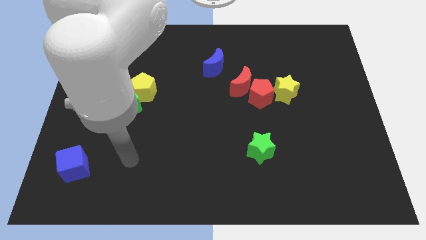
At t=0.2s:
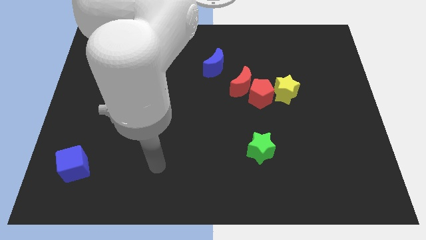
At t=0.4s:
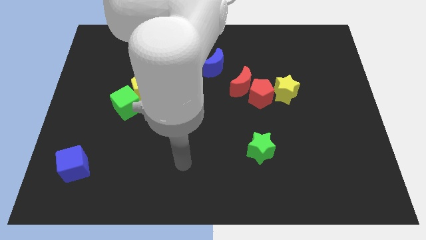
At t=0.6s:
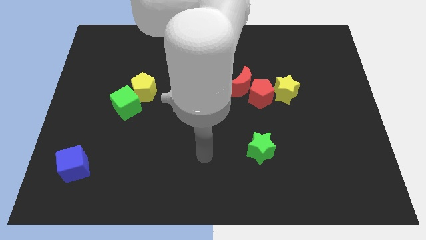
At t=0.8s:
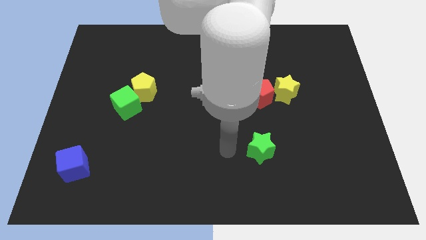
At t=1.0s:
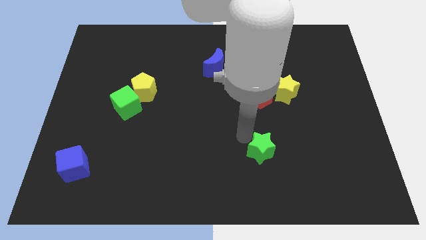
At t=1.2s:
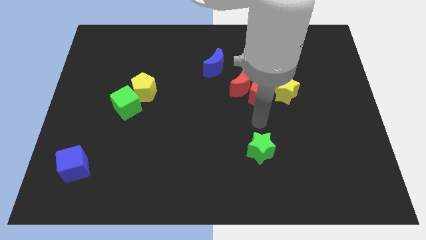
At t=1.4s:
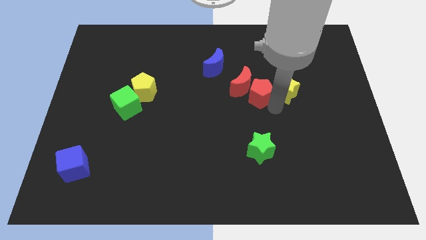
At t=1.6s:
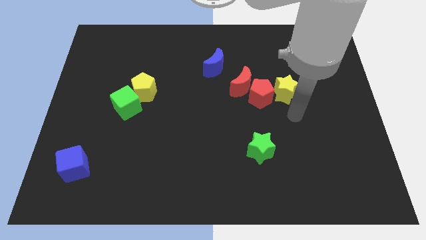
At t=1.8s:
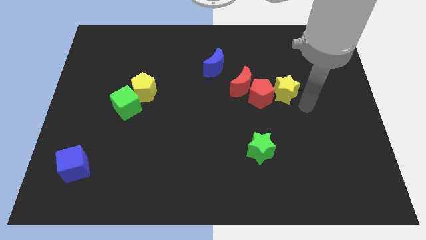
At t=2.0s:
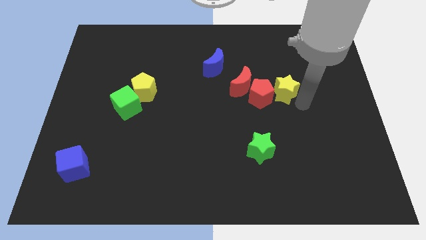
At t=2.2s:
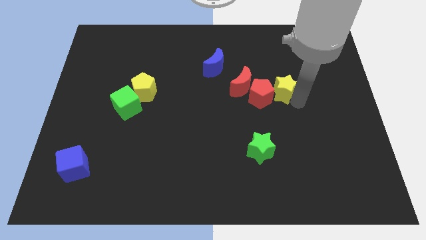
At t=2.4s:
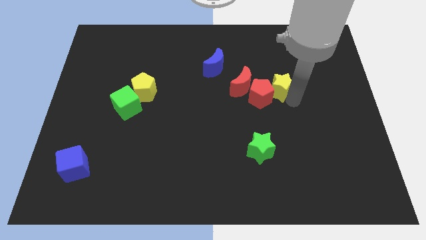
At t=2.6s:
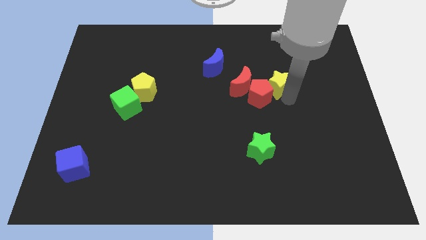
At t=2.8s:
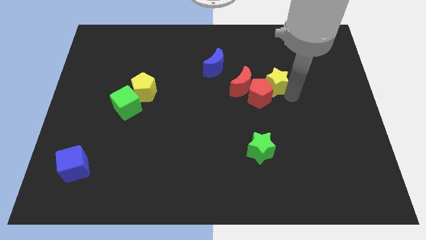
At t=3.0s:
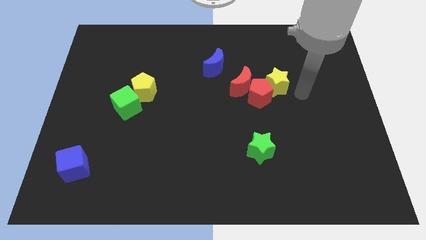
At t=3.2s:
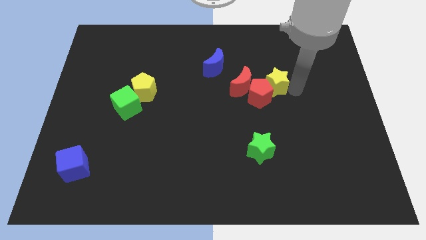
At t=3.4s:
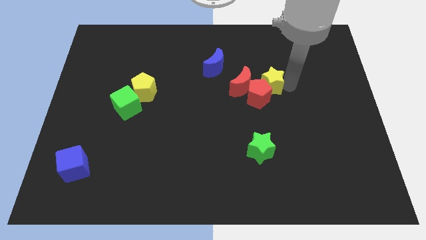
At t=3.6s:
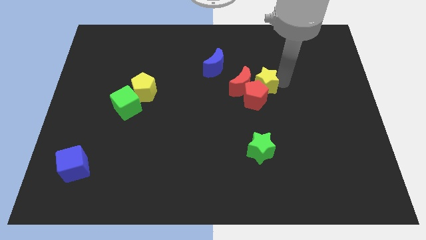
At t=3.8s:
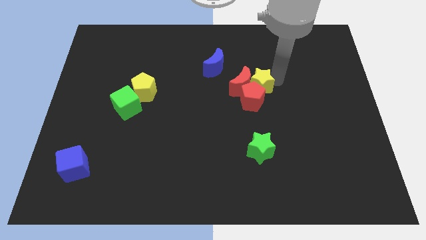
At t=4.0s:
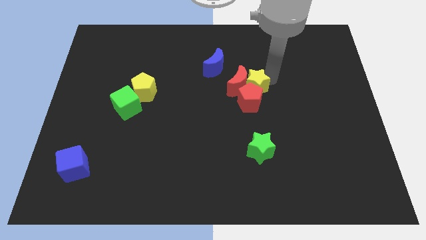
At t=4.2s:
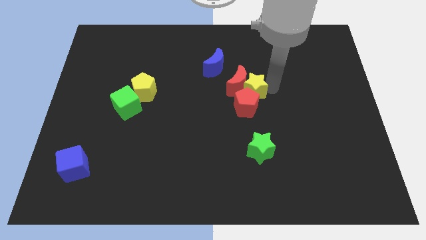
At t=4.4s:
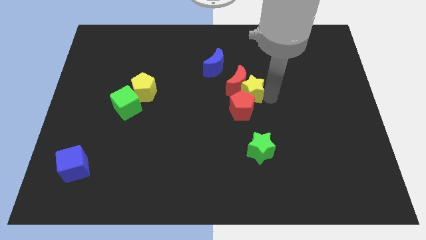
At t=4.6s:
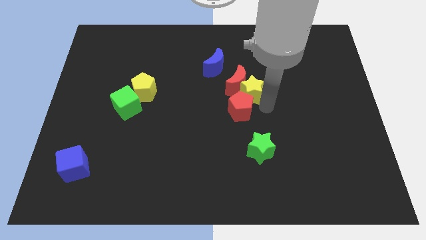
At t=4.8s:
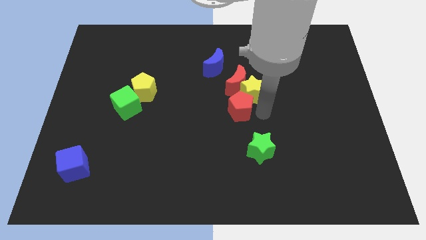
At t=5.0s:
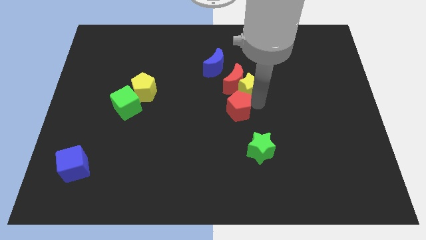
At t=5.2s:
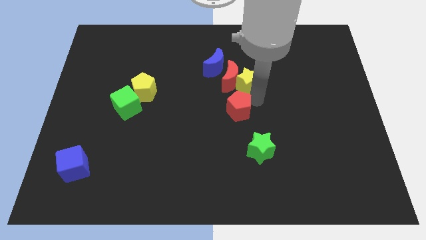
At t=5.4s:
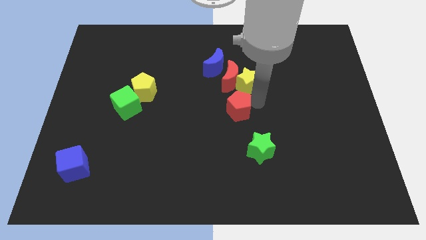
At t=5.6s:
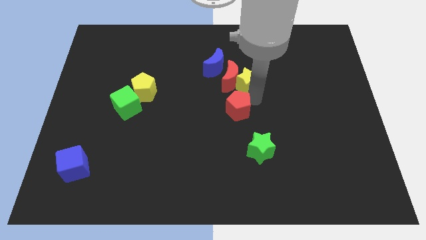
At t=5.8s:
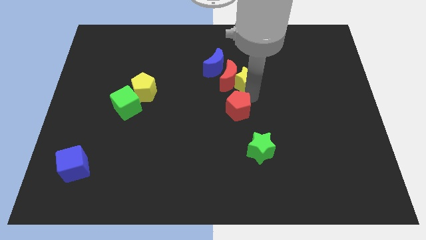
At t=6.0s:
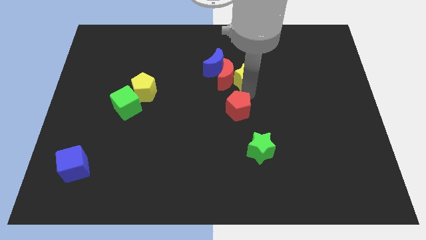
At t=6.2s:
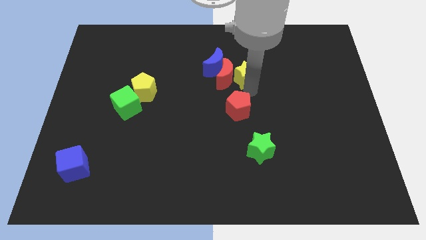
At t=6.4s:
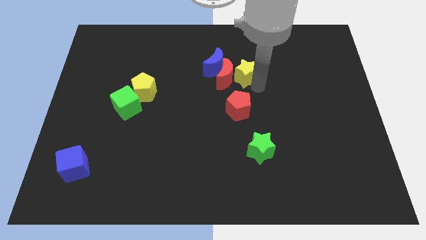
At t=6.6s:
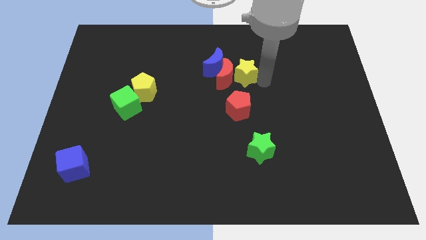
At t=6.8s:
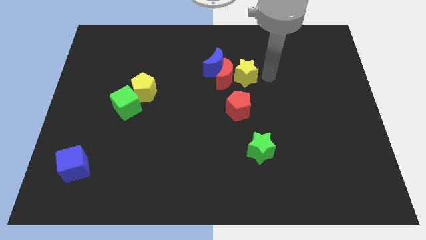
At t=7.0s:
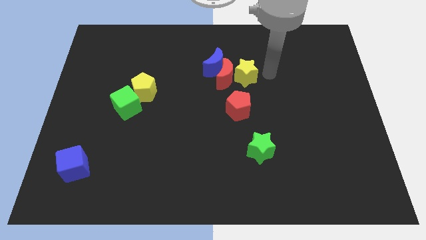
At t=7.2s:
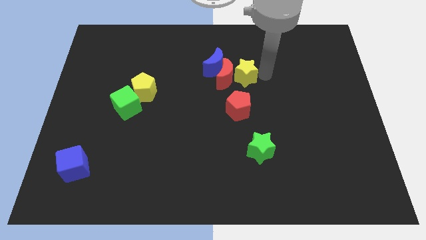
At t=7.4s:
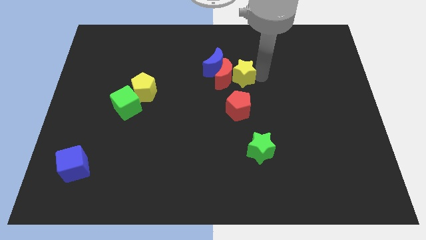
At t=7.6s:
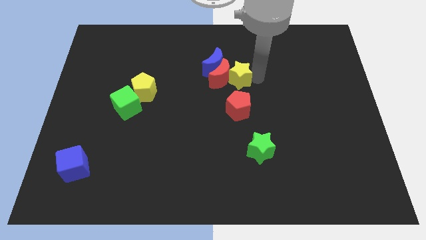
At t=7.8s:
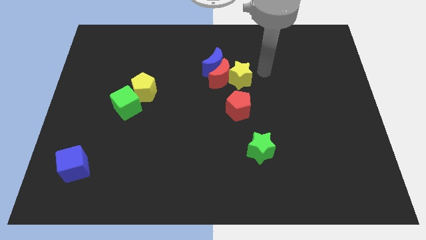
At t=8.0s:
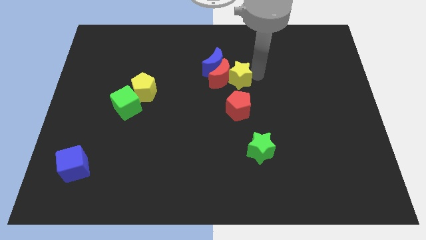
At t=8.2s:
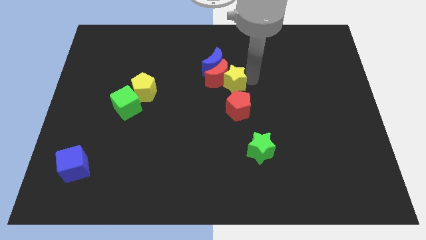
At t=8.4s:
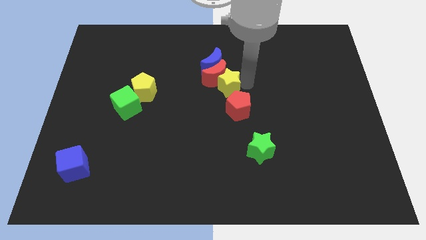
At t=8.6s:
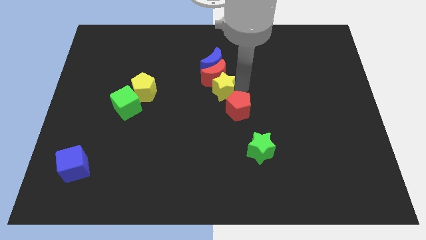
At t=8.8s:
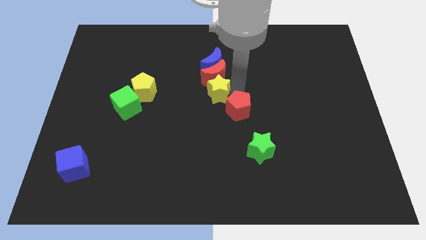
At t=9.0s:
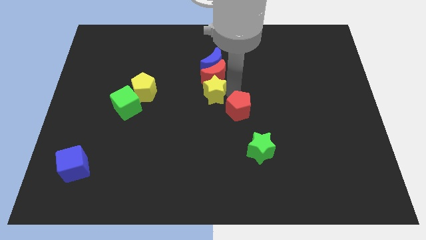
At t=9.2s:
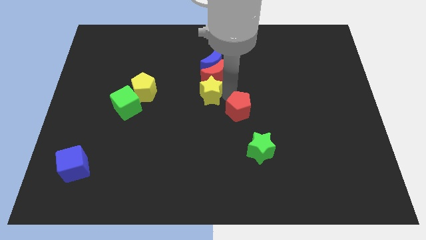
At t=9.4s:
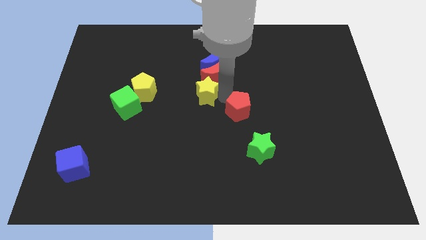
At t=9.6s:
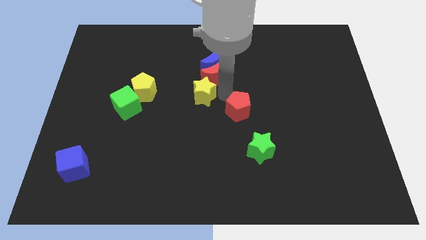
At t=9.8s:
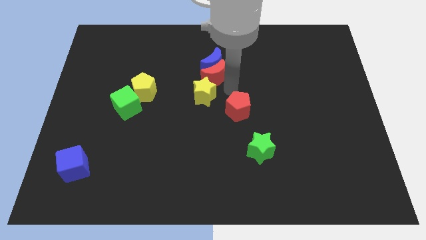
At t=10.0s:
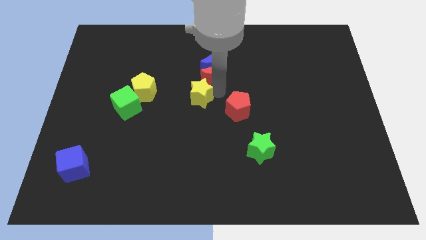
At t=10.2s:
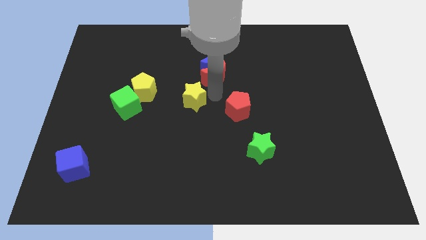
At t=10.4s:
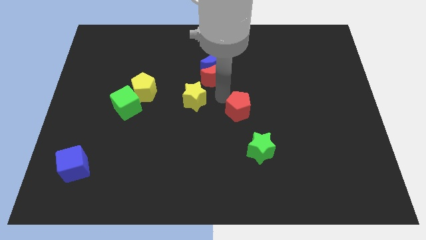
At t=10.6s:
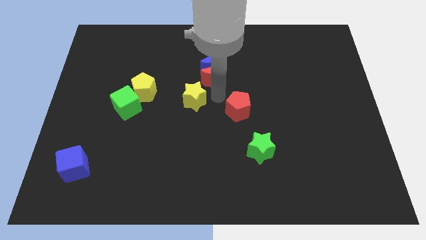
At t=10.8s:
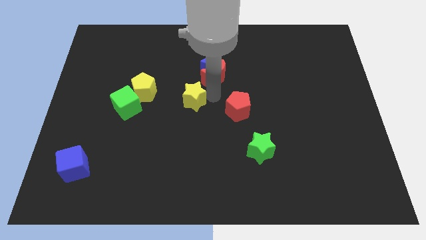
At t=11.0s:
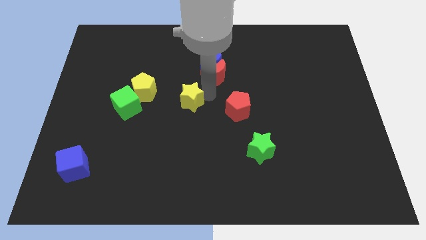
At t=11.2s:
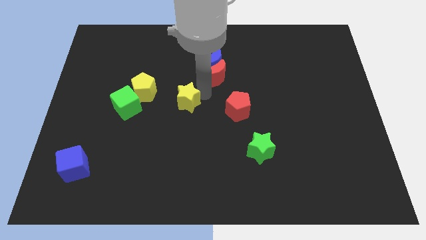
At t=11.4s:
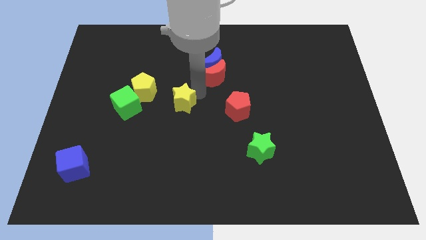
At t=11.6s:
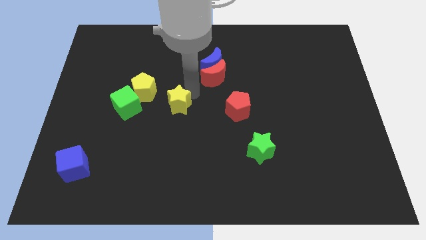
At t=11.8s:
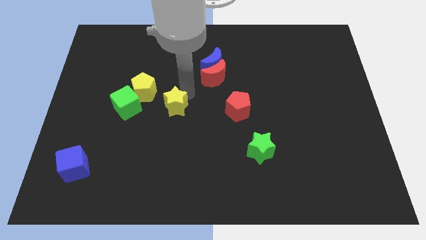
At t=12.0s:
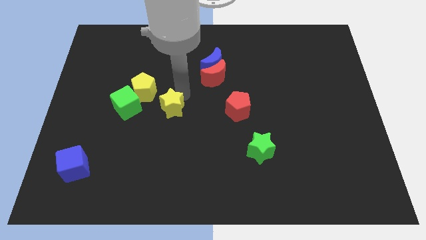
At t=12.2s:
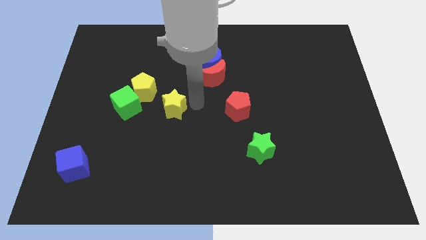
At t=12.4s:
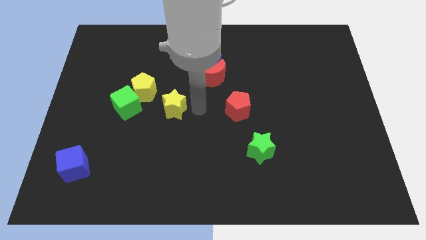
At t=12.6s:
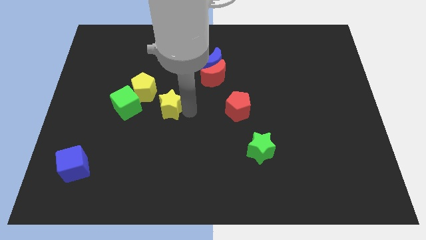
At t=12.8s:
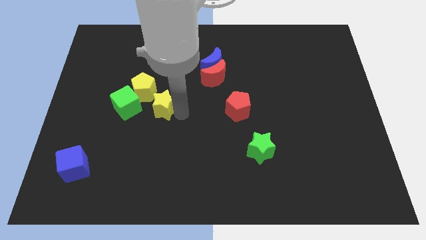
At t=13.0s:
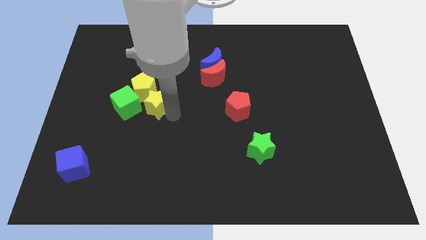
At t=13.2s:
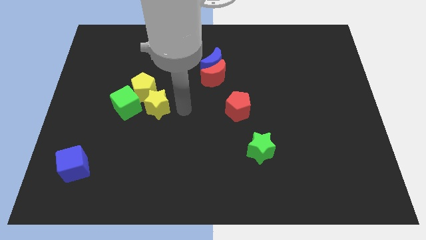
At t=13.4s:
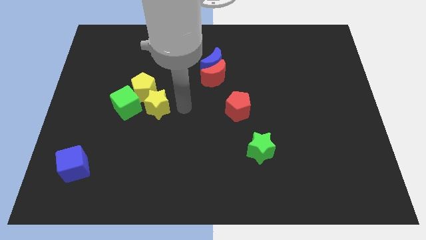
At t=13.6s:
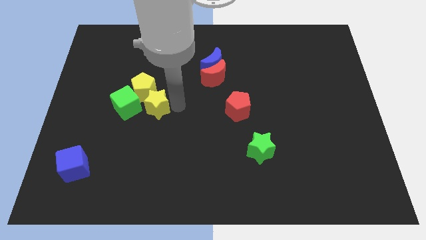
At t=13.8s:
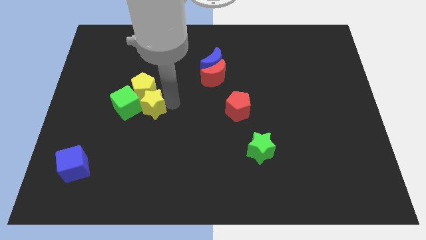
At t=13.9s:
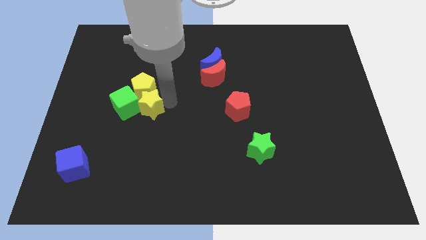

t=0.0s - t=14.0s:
slide the yellow star towards the green cube
